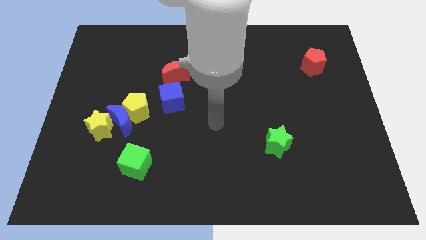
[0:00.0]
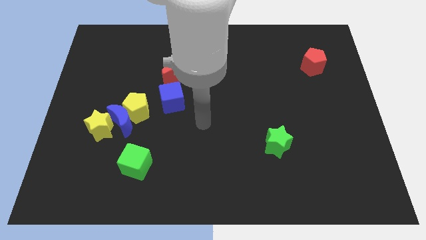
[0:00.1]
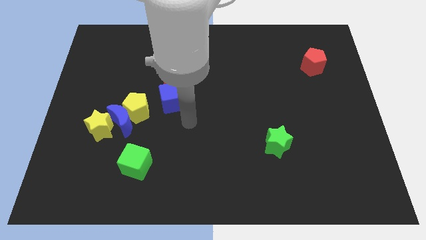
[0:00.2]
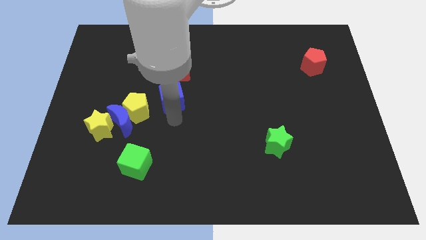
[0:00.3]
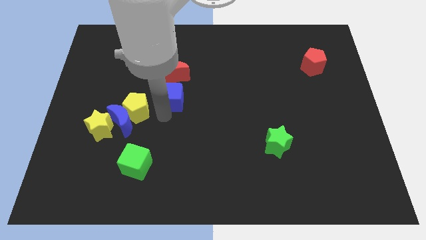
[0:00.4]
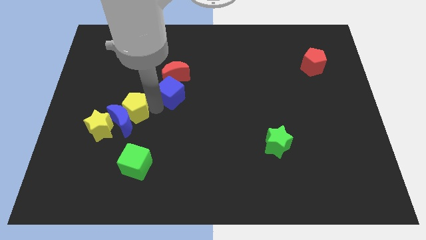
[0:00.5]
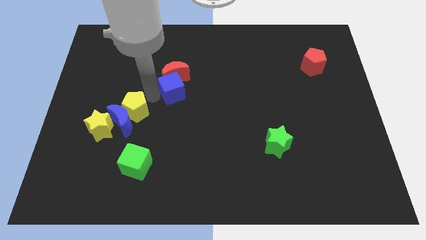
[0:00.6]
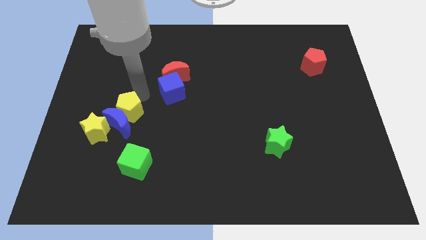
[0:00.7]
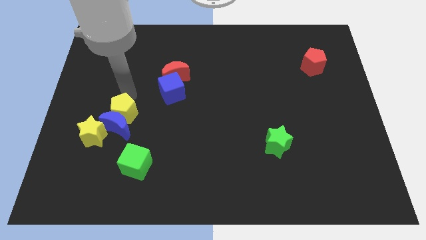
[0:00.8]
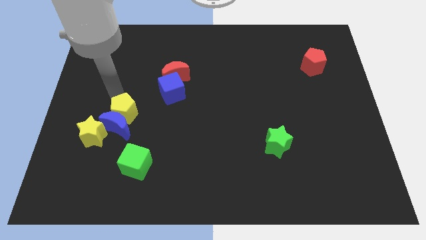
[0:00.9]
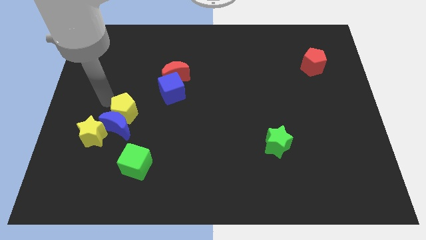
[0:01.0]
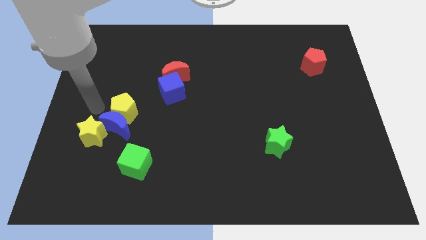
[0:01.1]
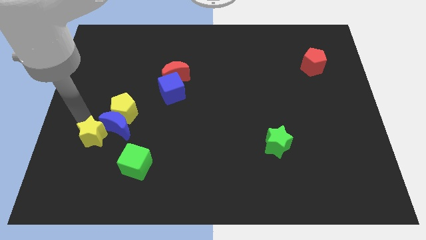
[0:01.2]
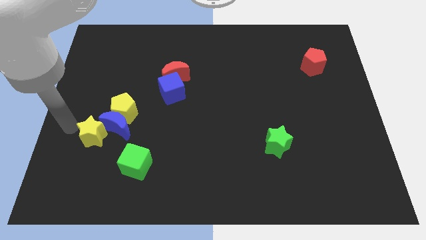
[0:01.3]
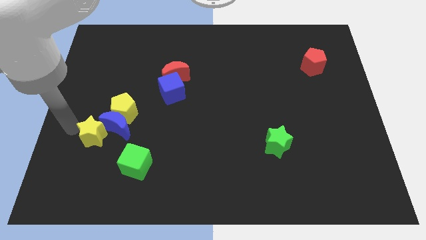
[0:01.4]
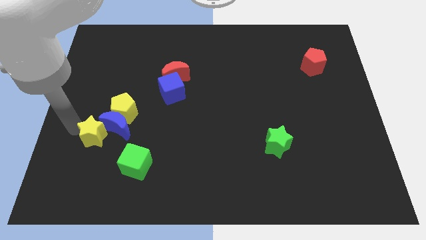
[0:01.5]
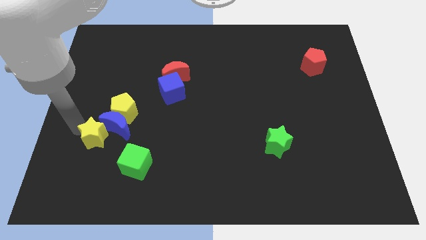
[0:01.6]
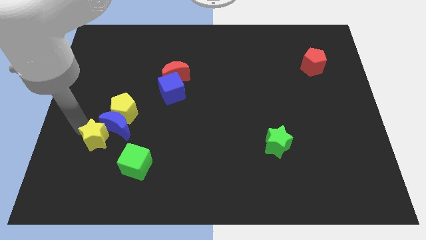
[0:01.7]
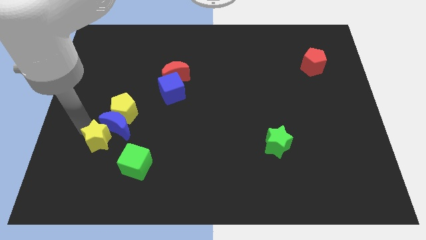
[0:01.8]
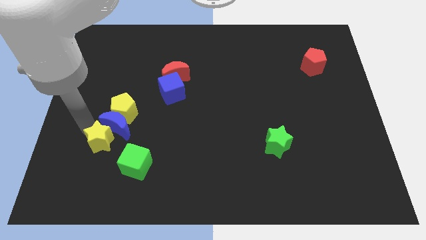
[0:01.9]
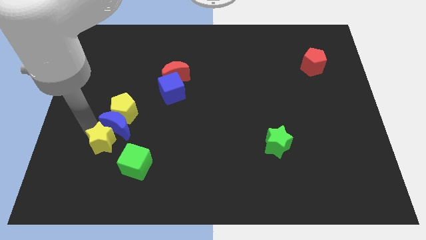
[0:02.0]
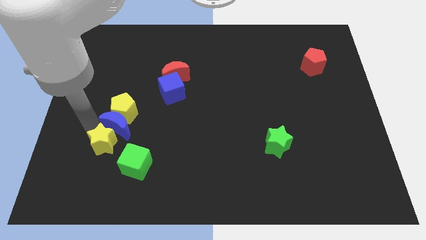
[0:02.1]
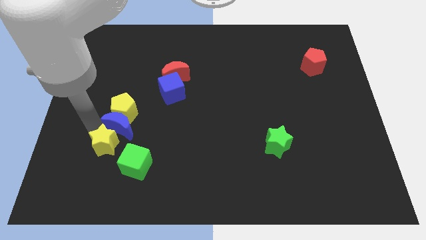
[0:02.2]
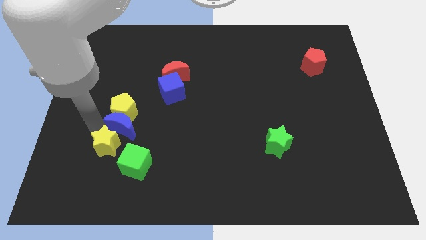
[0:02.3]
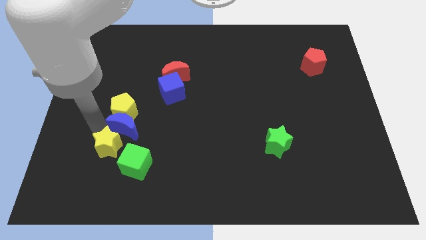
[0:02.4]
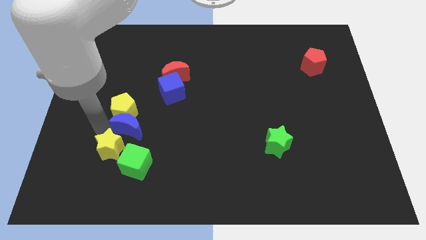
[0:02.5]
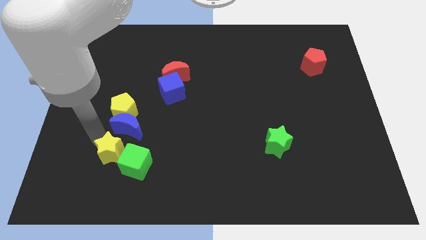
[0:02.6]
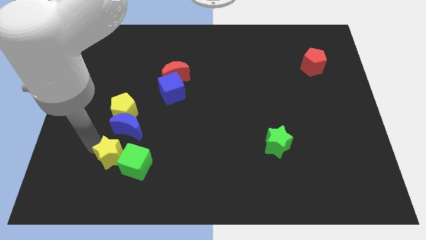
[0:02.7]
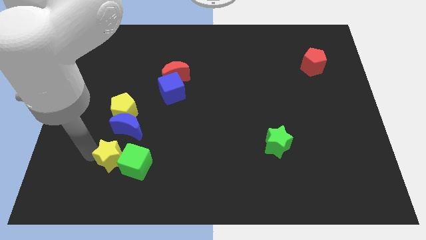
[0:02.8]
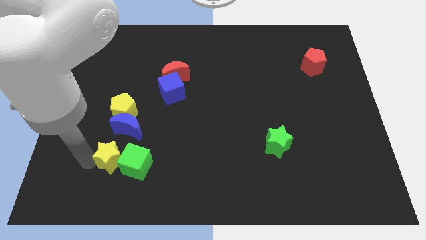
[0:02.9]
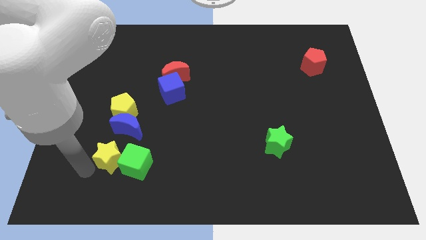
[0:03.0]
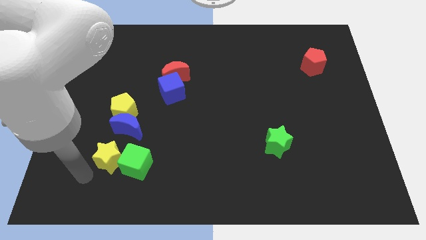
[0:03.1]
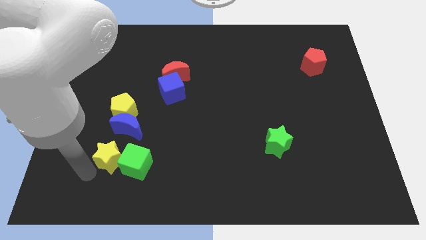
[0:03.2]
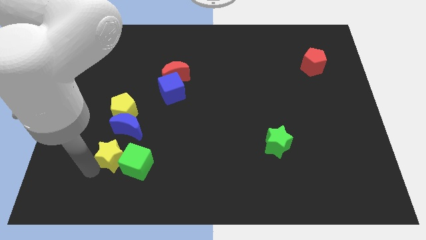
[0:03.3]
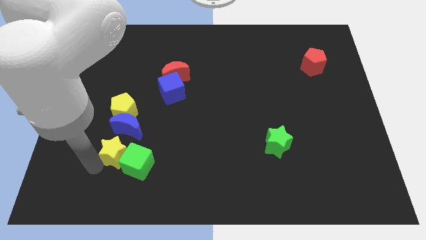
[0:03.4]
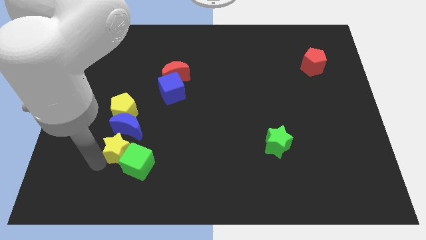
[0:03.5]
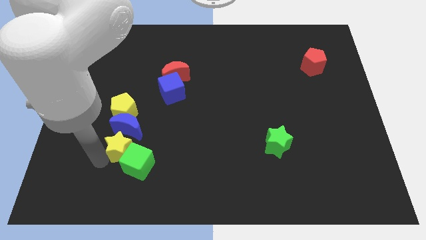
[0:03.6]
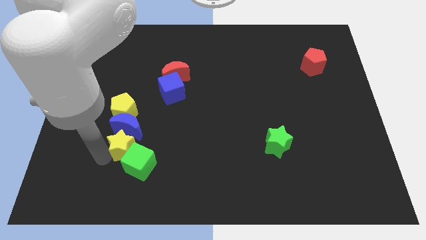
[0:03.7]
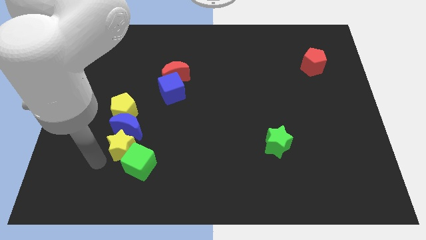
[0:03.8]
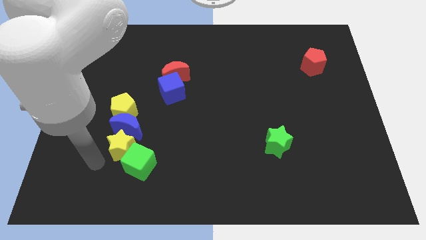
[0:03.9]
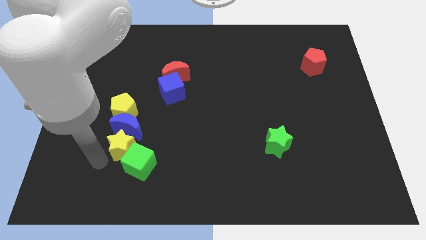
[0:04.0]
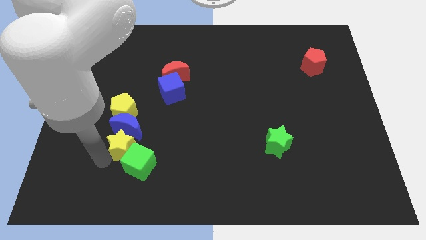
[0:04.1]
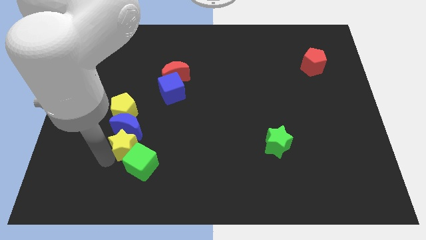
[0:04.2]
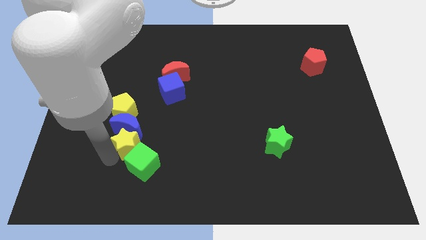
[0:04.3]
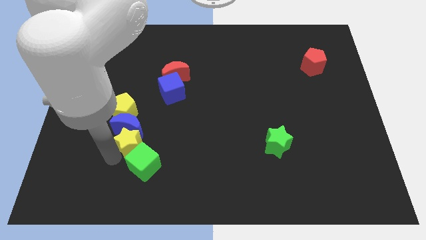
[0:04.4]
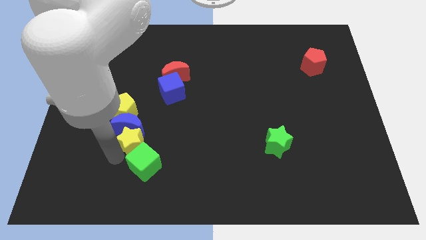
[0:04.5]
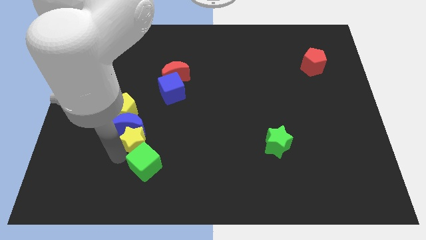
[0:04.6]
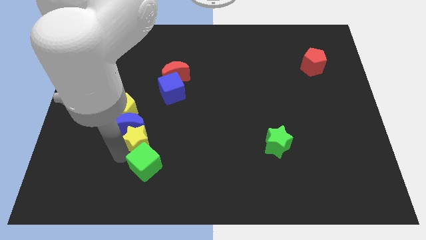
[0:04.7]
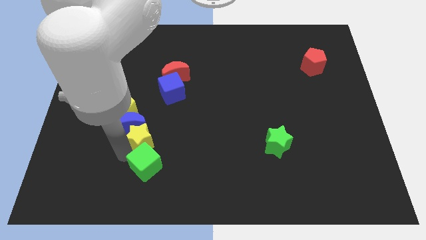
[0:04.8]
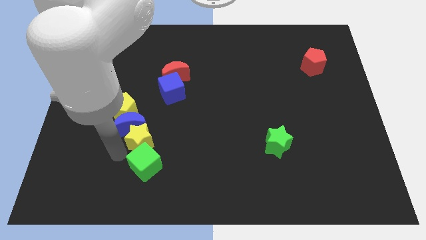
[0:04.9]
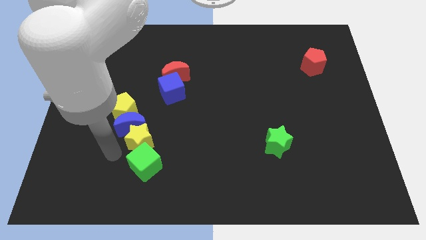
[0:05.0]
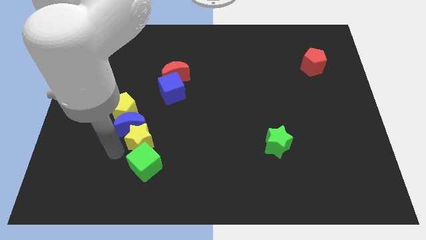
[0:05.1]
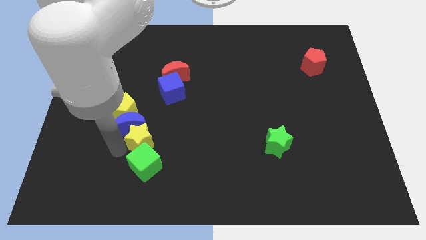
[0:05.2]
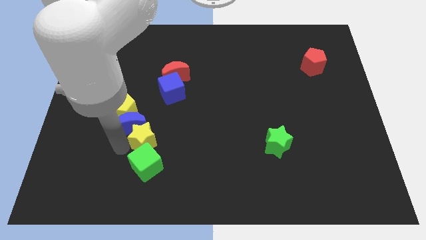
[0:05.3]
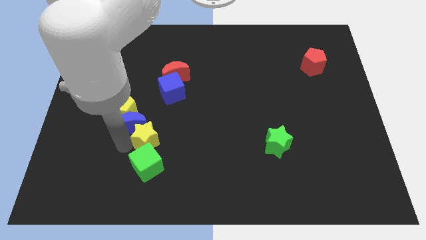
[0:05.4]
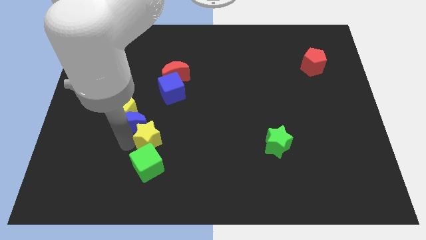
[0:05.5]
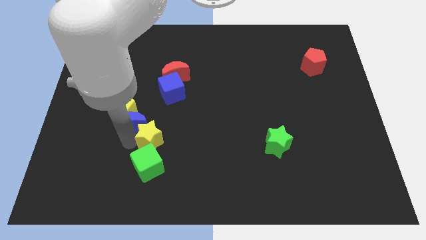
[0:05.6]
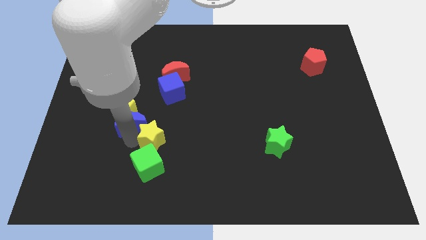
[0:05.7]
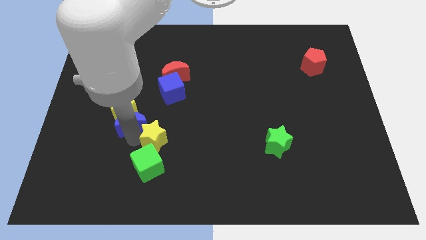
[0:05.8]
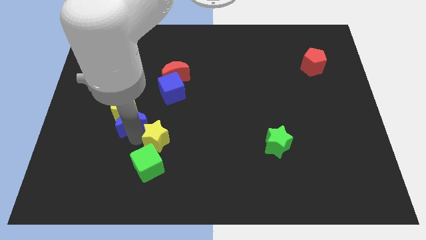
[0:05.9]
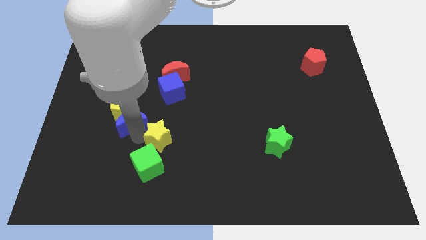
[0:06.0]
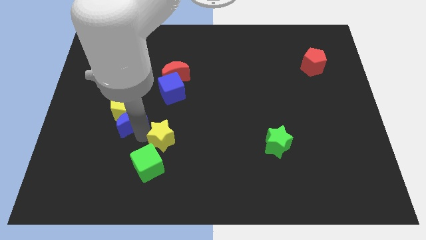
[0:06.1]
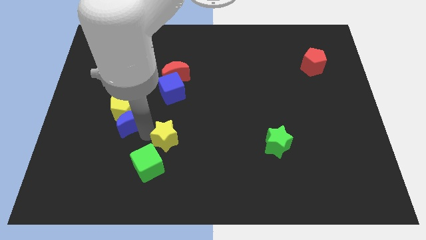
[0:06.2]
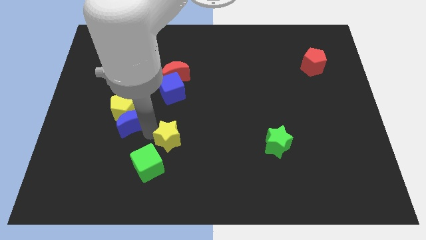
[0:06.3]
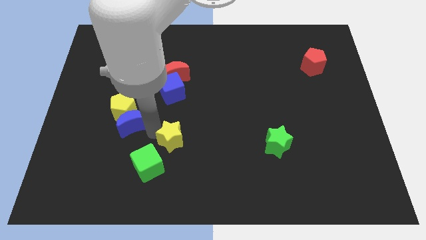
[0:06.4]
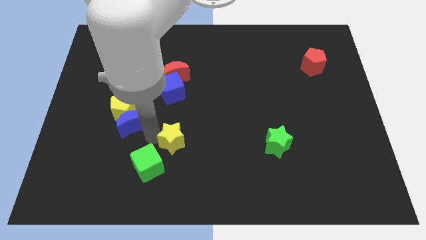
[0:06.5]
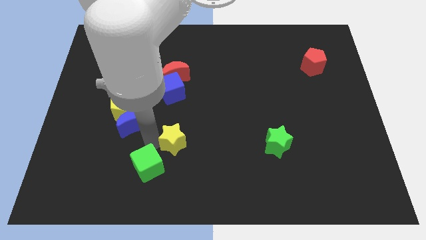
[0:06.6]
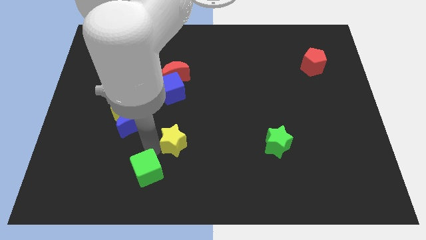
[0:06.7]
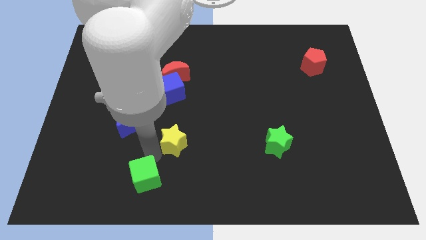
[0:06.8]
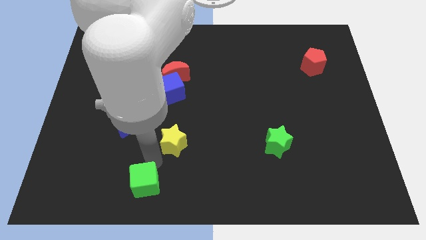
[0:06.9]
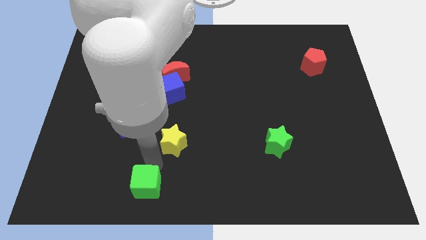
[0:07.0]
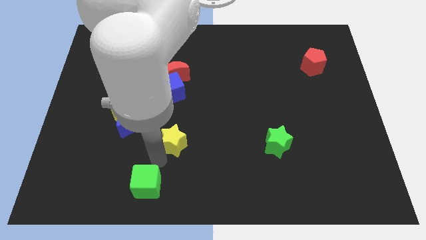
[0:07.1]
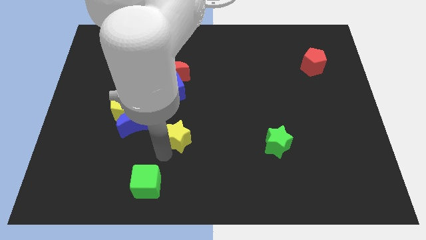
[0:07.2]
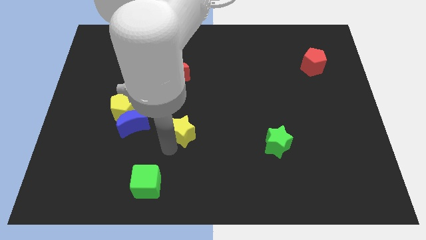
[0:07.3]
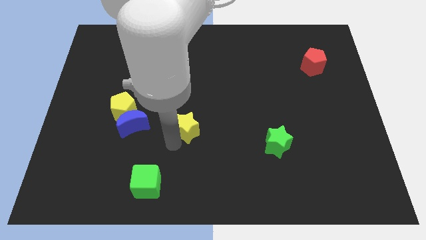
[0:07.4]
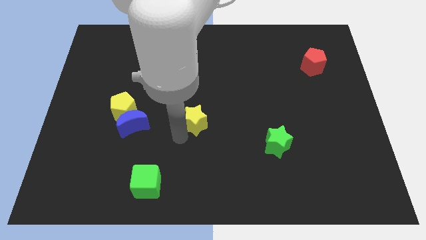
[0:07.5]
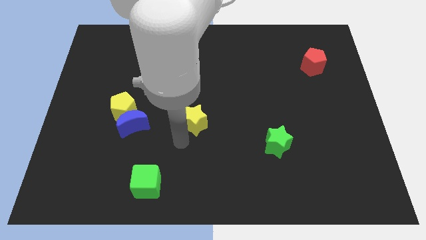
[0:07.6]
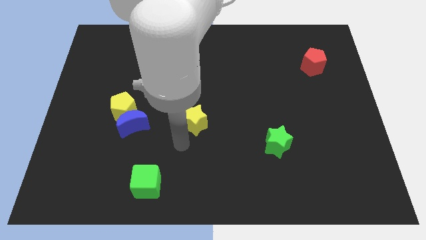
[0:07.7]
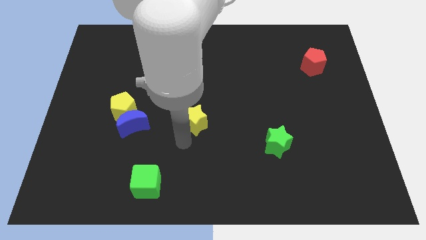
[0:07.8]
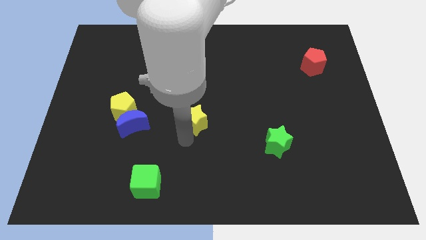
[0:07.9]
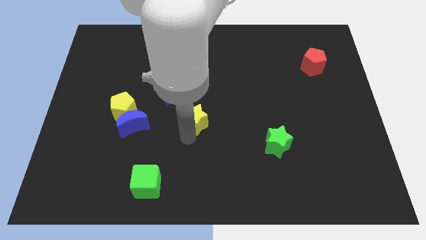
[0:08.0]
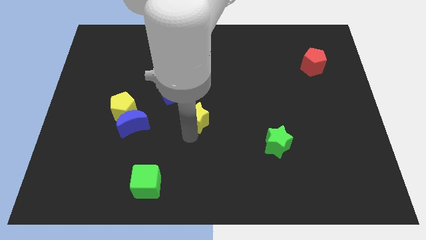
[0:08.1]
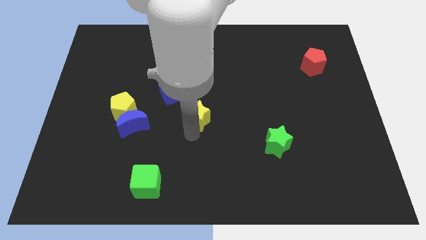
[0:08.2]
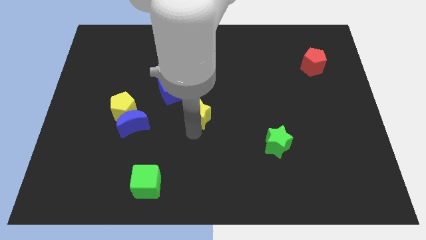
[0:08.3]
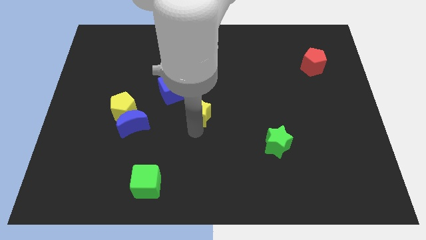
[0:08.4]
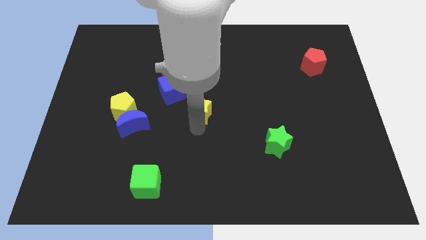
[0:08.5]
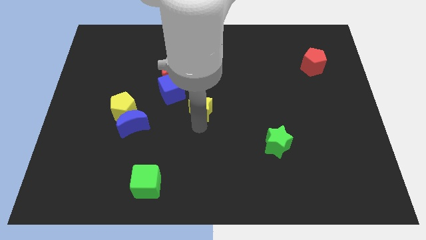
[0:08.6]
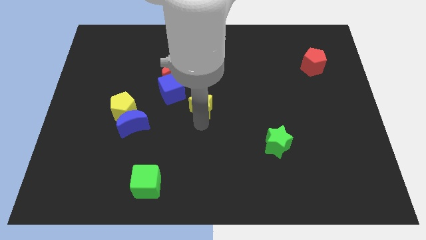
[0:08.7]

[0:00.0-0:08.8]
slide the yellow star to the bottom right of the red moon
